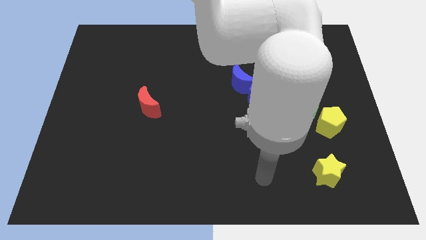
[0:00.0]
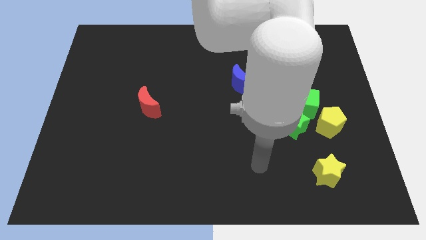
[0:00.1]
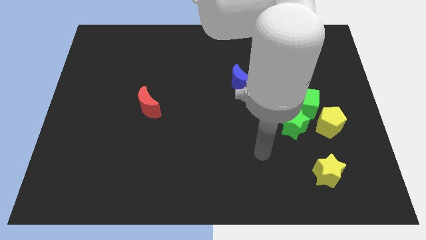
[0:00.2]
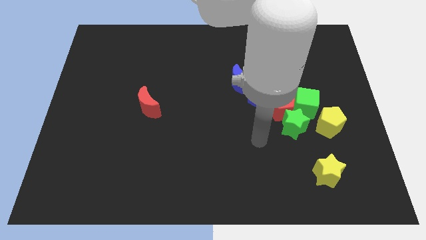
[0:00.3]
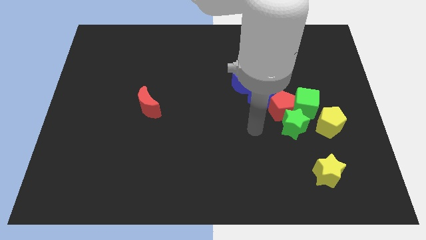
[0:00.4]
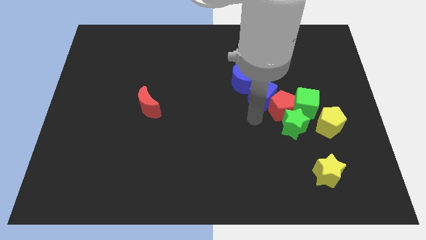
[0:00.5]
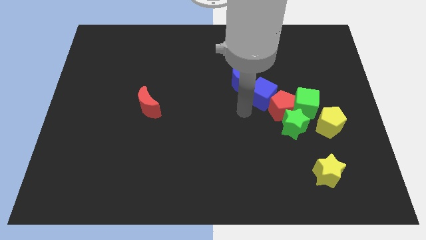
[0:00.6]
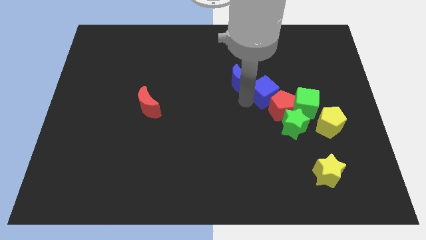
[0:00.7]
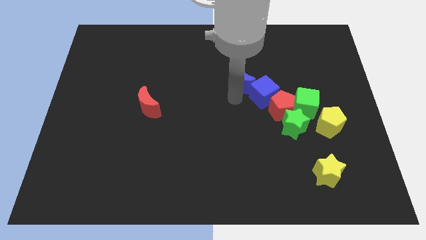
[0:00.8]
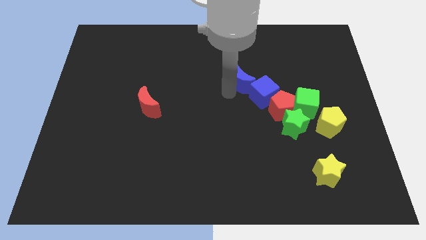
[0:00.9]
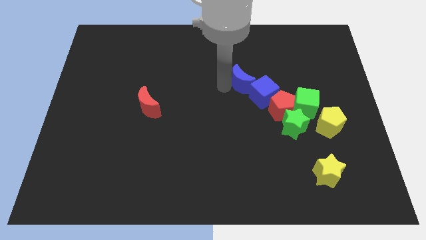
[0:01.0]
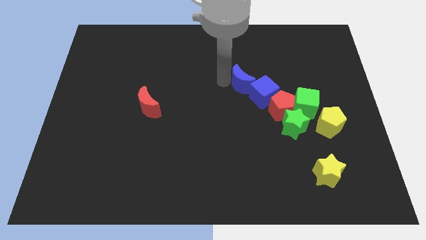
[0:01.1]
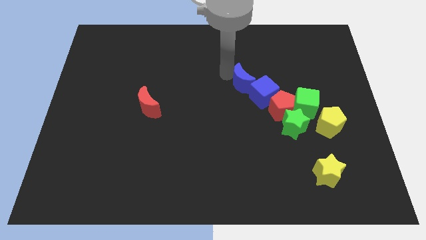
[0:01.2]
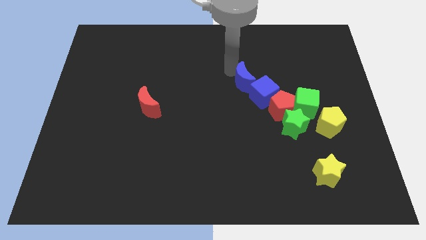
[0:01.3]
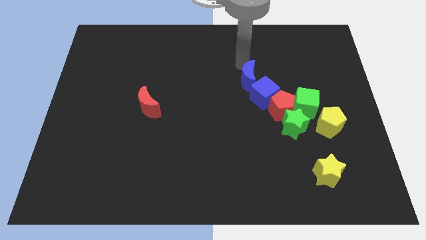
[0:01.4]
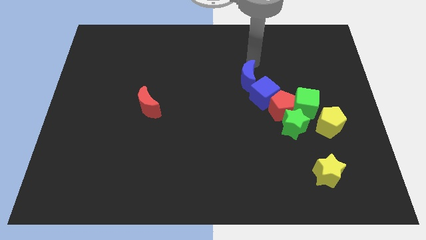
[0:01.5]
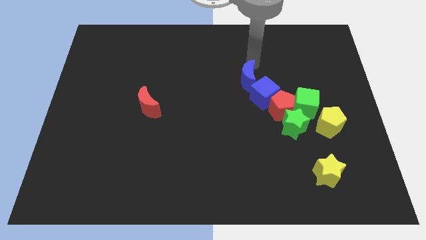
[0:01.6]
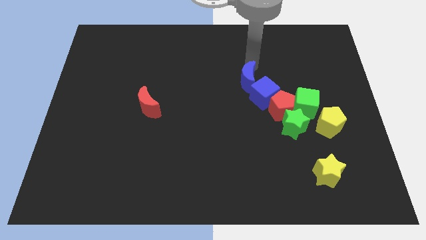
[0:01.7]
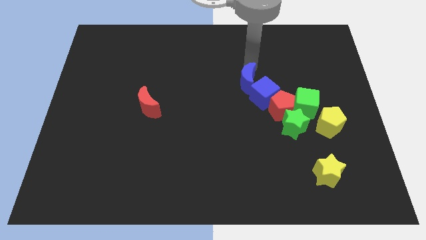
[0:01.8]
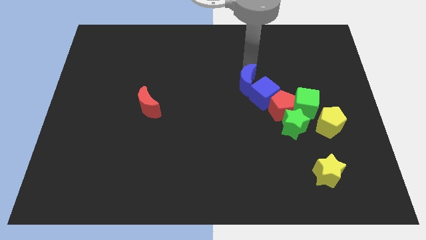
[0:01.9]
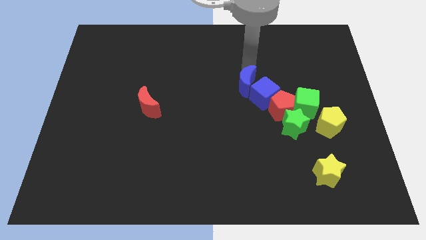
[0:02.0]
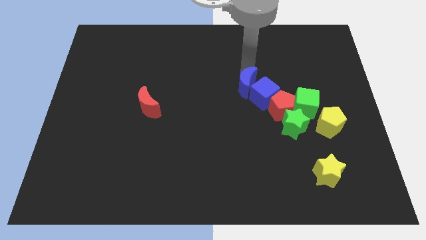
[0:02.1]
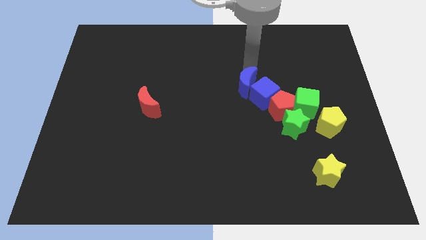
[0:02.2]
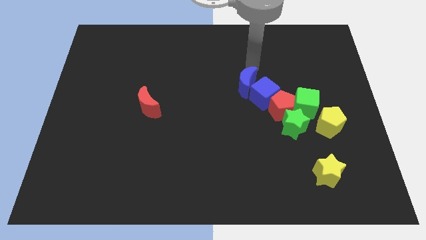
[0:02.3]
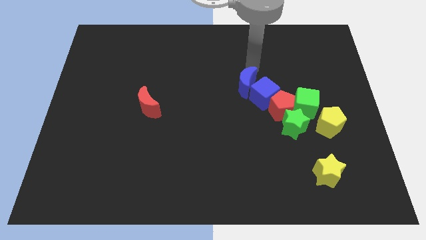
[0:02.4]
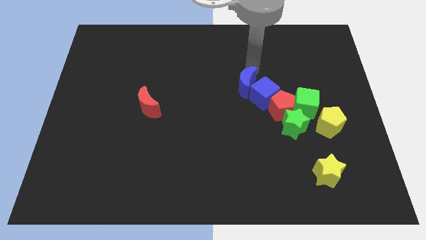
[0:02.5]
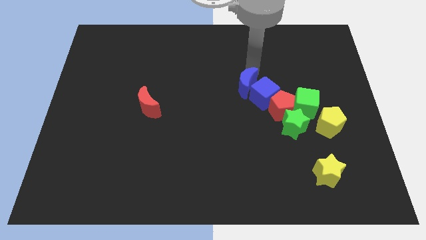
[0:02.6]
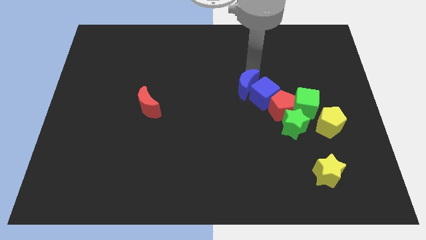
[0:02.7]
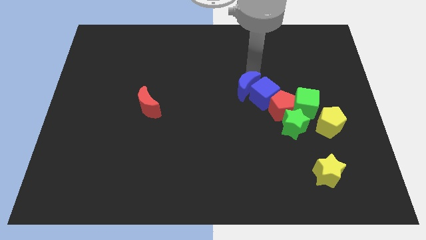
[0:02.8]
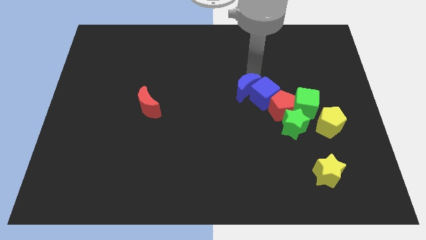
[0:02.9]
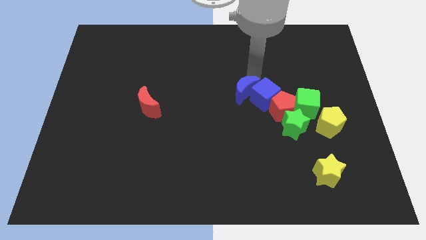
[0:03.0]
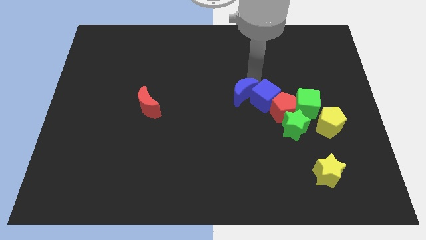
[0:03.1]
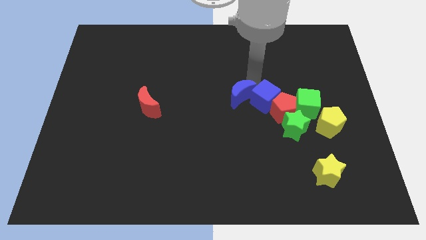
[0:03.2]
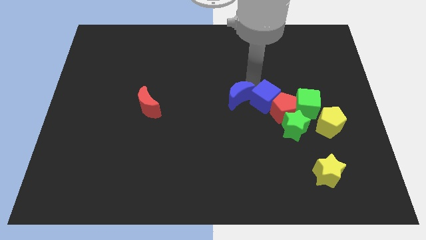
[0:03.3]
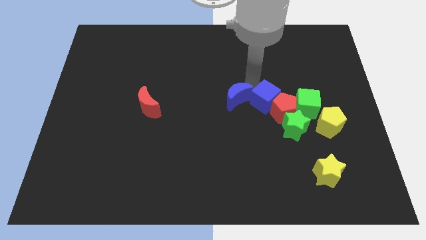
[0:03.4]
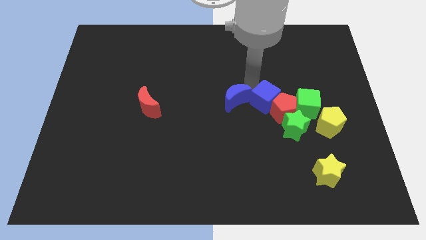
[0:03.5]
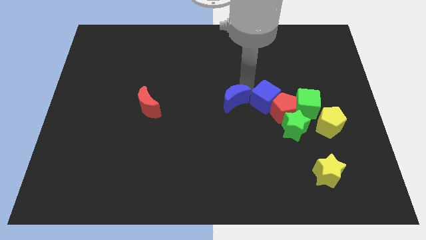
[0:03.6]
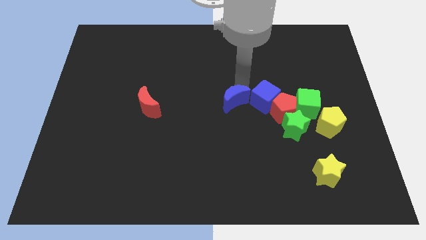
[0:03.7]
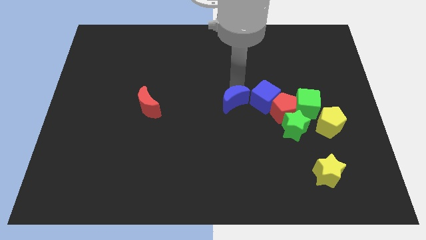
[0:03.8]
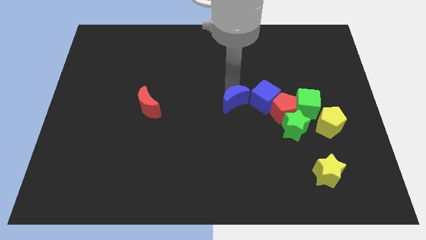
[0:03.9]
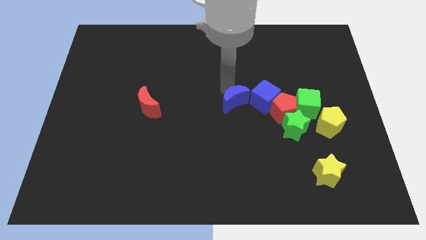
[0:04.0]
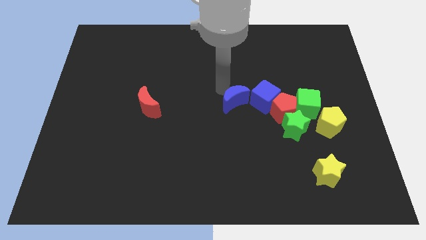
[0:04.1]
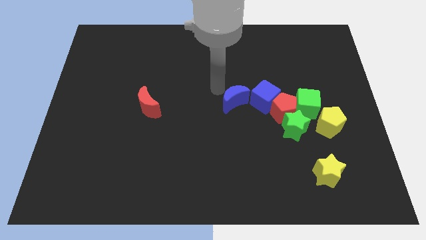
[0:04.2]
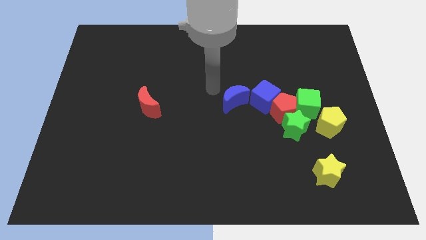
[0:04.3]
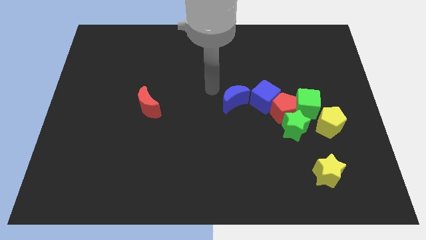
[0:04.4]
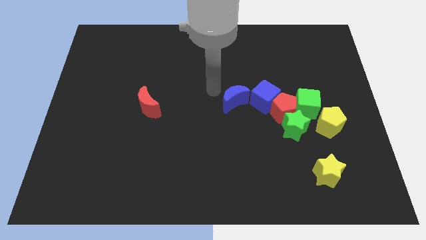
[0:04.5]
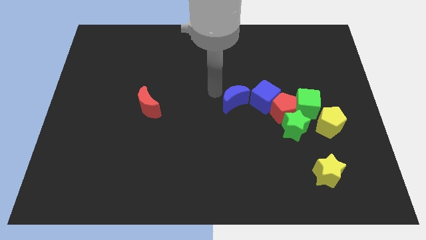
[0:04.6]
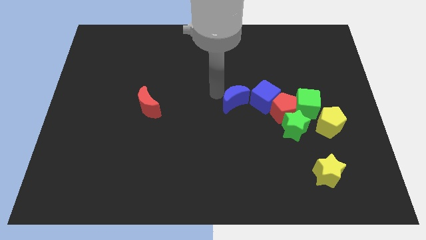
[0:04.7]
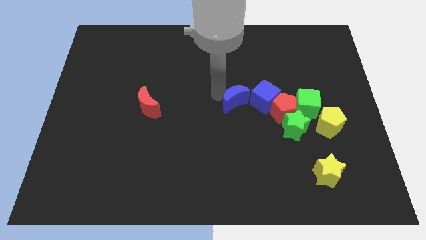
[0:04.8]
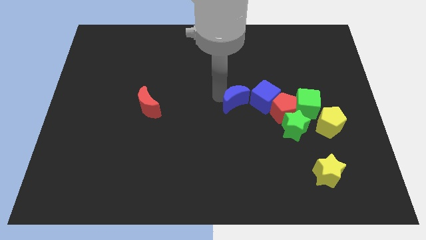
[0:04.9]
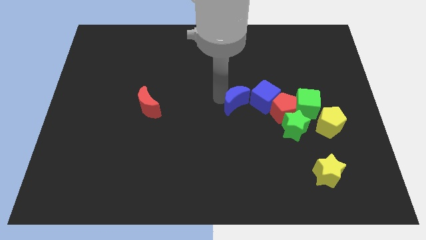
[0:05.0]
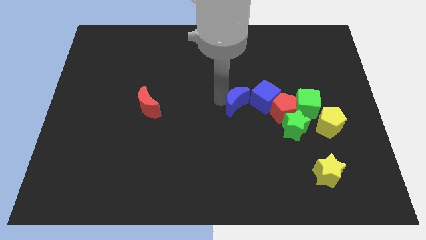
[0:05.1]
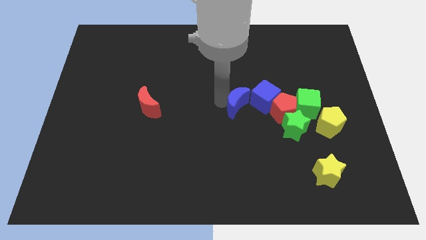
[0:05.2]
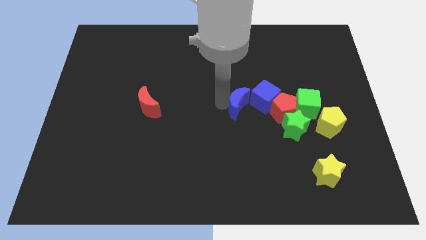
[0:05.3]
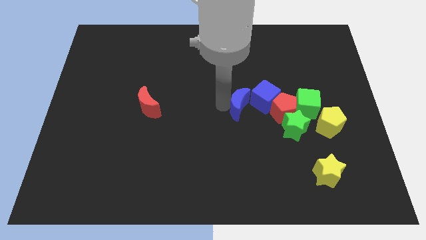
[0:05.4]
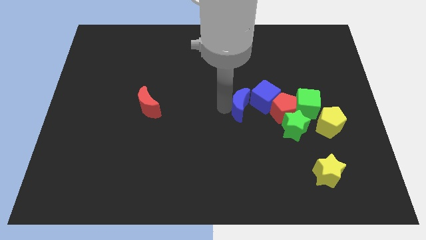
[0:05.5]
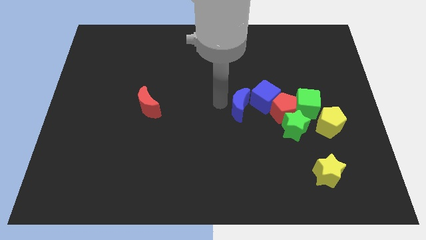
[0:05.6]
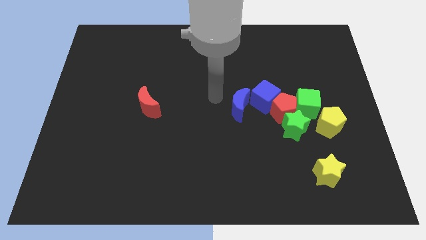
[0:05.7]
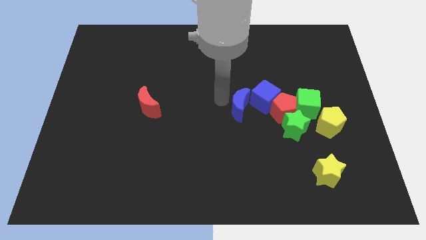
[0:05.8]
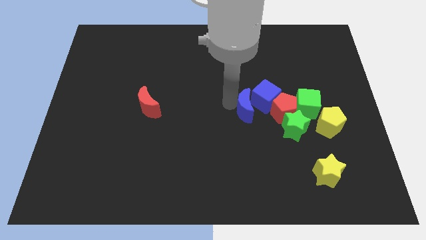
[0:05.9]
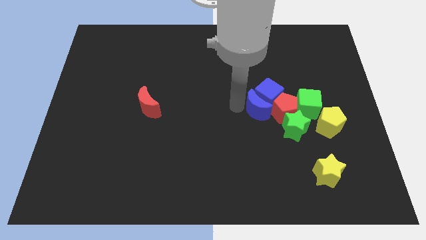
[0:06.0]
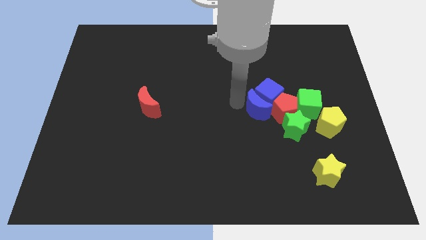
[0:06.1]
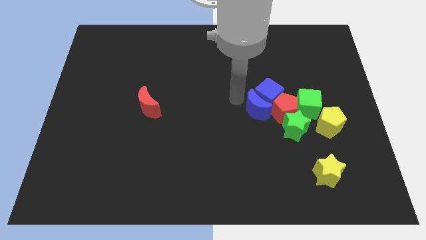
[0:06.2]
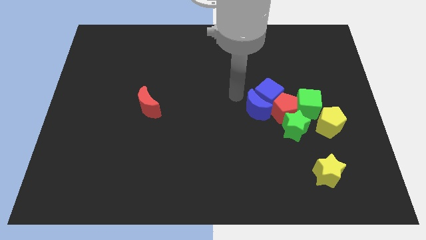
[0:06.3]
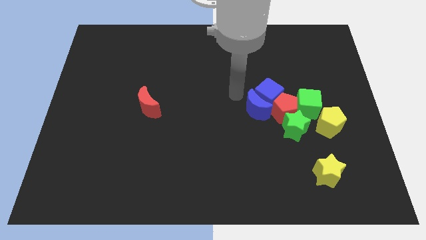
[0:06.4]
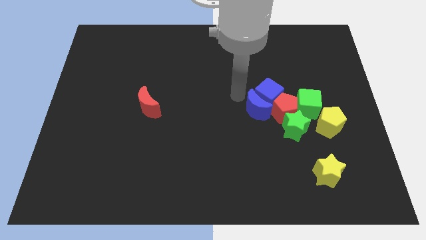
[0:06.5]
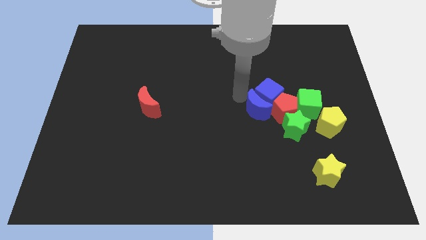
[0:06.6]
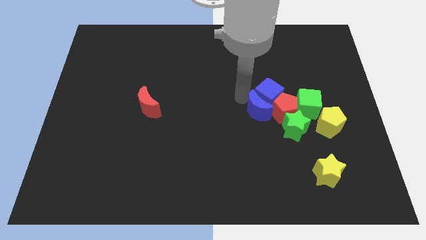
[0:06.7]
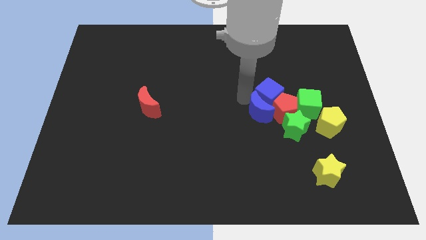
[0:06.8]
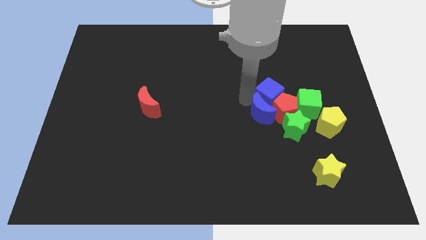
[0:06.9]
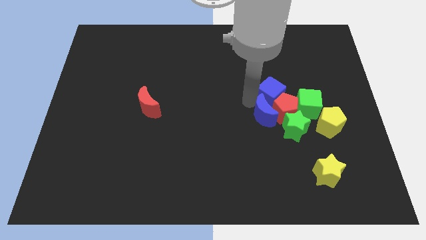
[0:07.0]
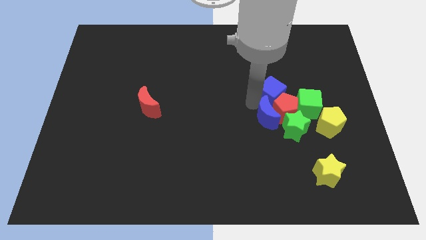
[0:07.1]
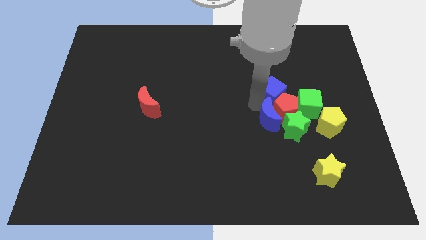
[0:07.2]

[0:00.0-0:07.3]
push the blue moon next to the green star
